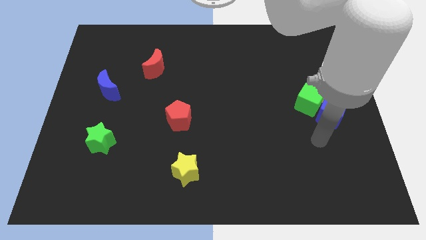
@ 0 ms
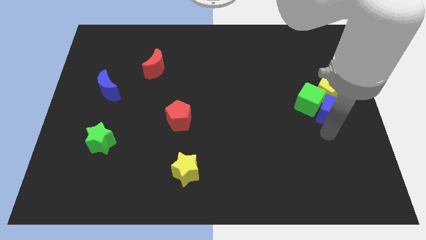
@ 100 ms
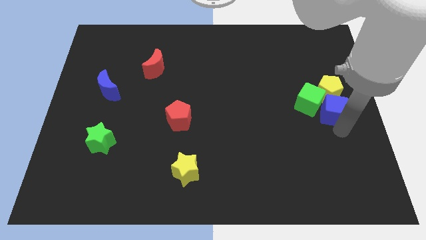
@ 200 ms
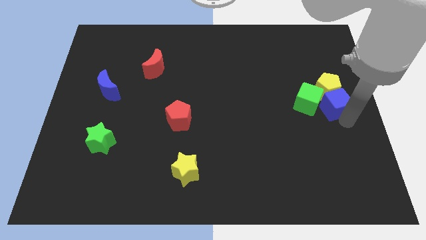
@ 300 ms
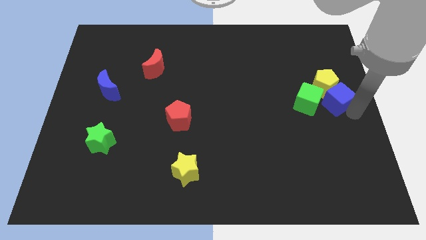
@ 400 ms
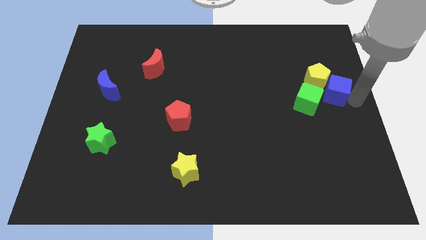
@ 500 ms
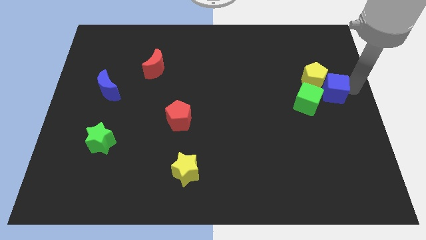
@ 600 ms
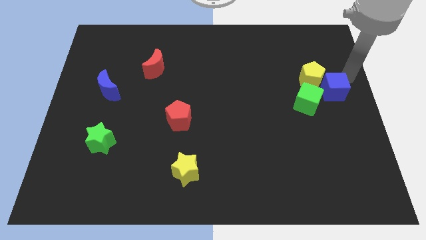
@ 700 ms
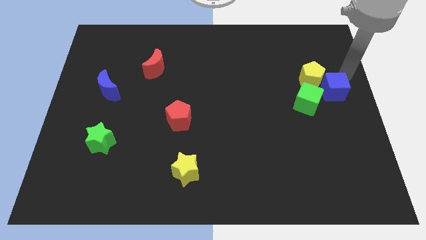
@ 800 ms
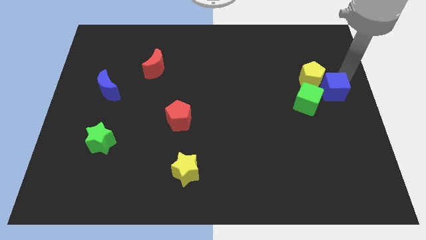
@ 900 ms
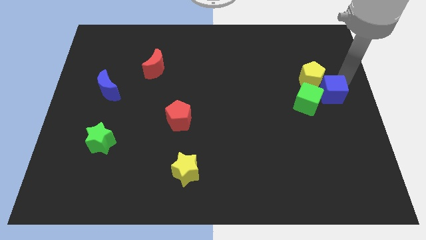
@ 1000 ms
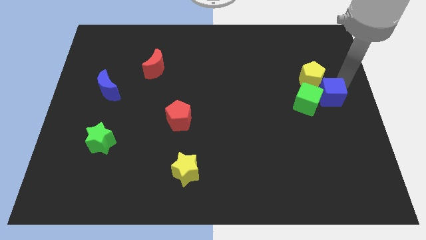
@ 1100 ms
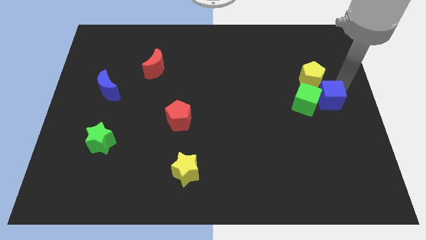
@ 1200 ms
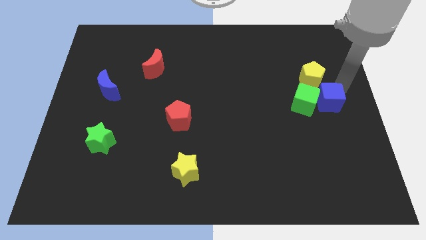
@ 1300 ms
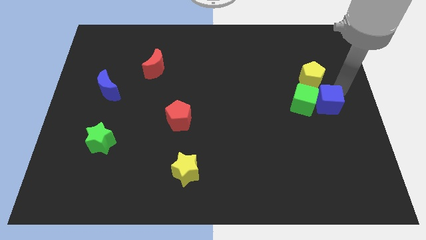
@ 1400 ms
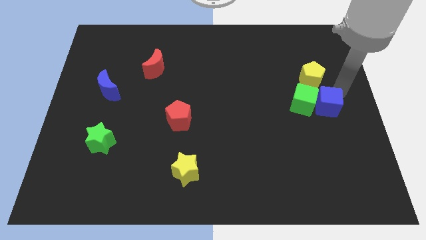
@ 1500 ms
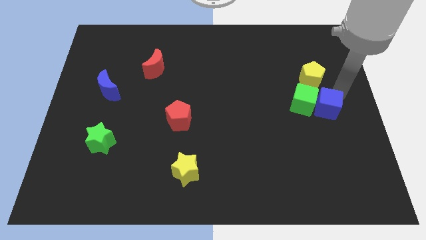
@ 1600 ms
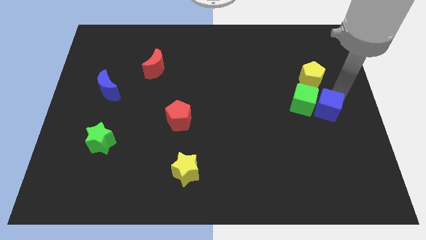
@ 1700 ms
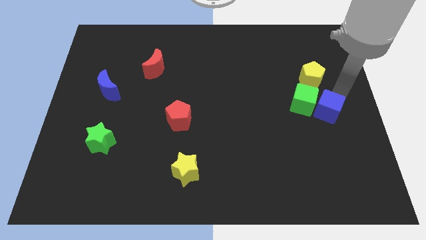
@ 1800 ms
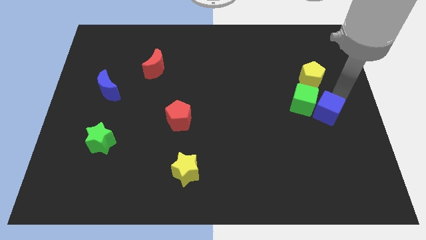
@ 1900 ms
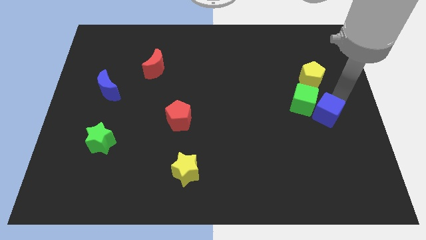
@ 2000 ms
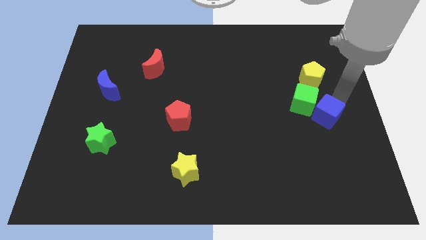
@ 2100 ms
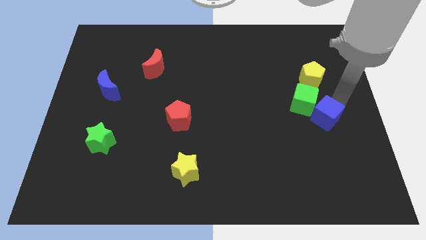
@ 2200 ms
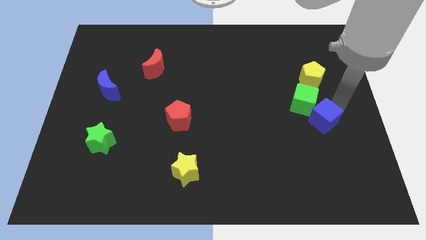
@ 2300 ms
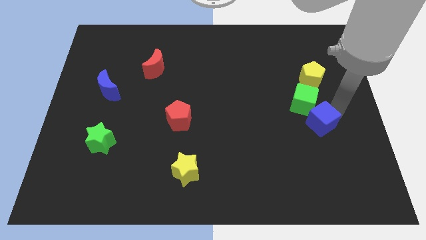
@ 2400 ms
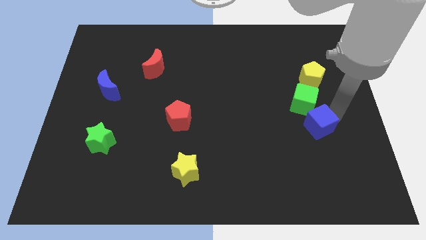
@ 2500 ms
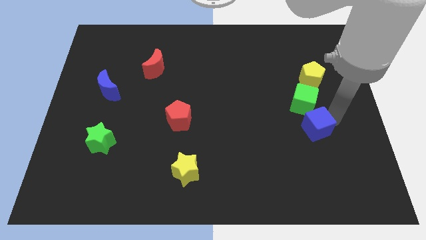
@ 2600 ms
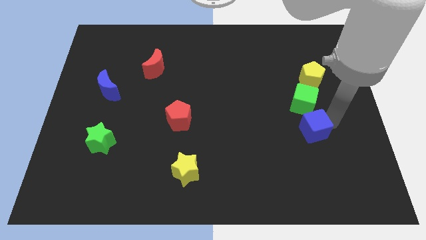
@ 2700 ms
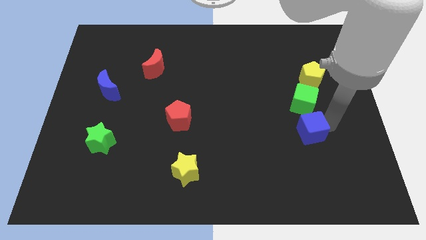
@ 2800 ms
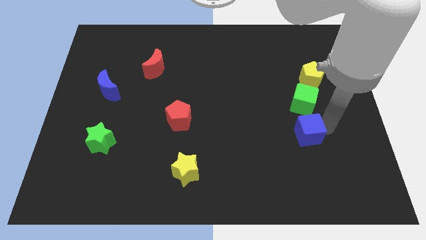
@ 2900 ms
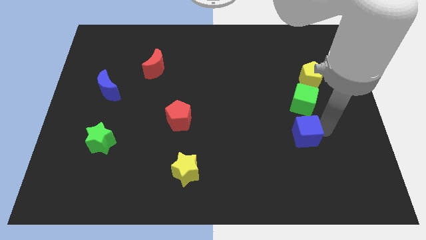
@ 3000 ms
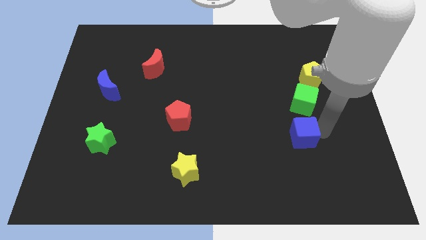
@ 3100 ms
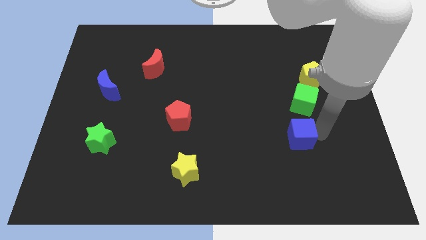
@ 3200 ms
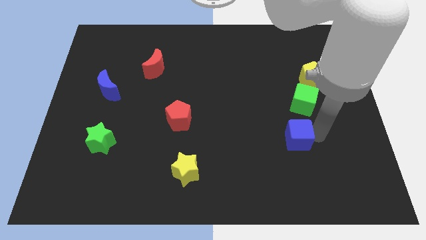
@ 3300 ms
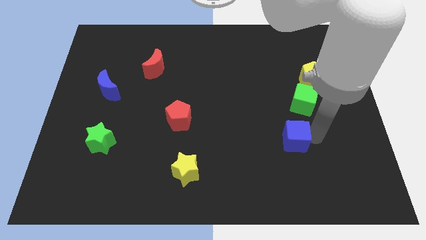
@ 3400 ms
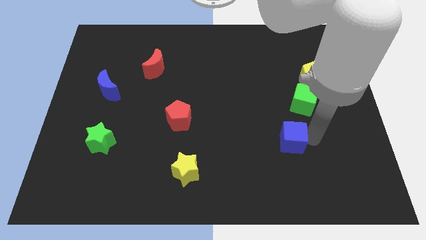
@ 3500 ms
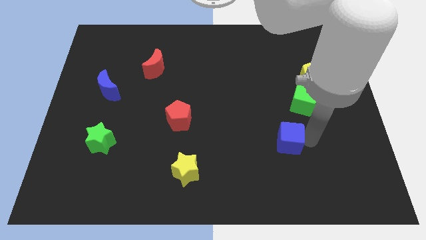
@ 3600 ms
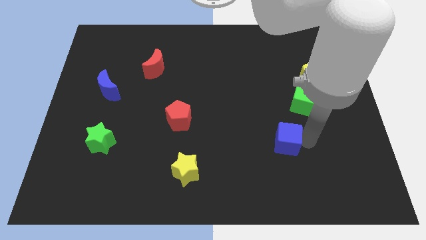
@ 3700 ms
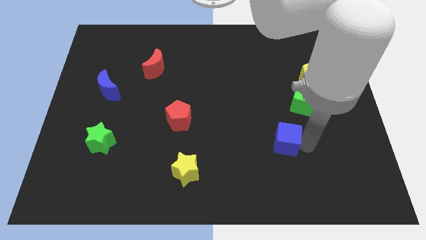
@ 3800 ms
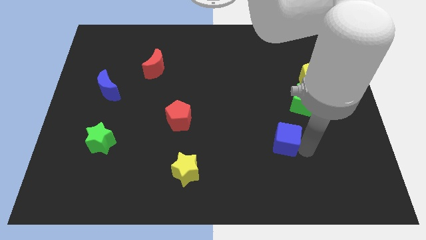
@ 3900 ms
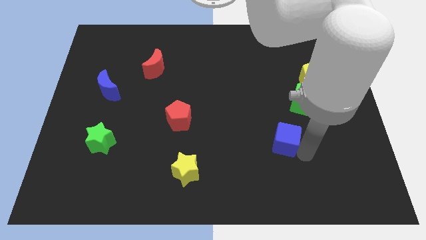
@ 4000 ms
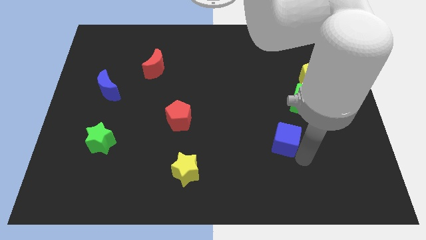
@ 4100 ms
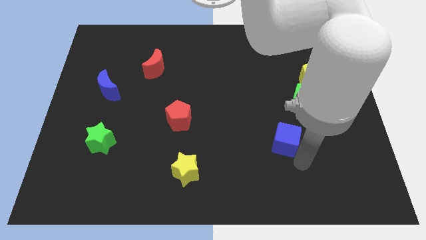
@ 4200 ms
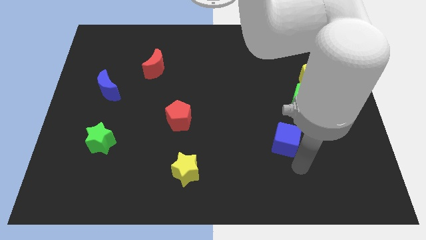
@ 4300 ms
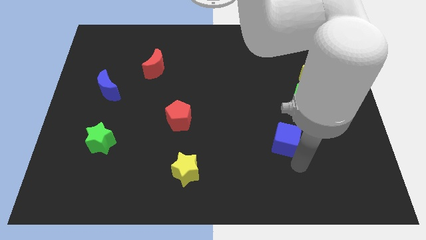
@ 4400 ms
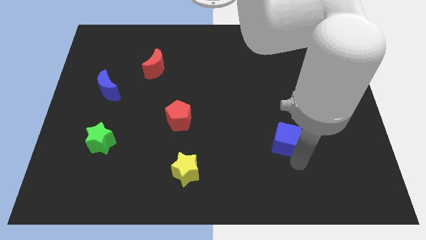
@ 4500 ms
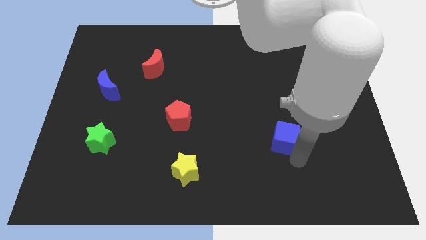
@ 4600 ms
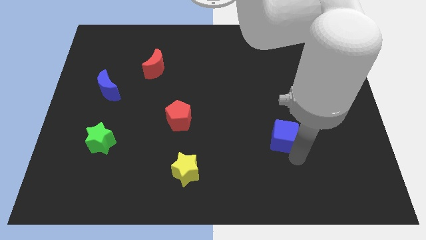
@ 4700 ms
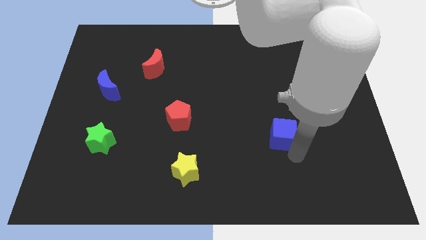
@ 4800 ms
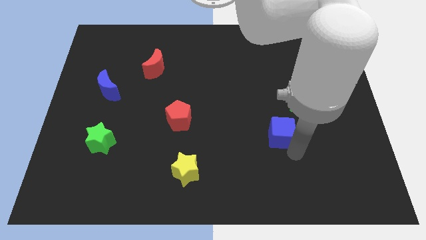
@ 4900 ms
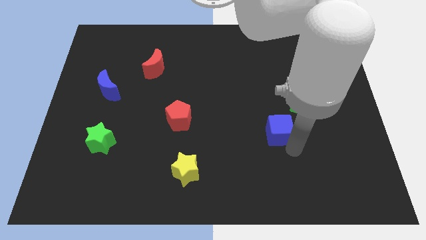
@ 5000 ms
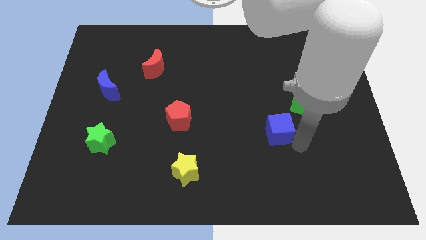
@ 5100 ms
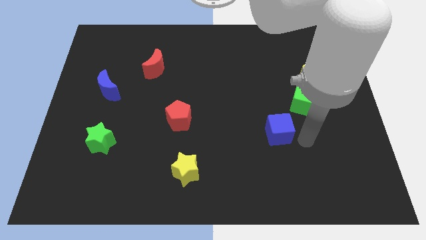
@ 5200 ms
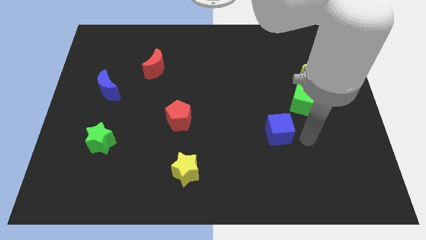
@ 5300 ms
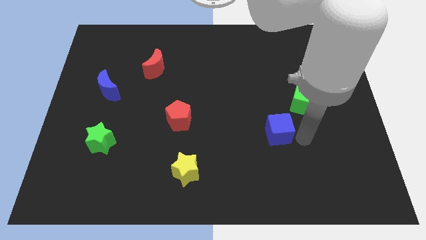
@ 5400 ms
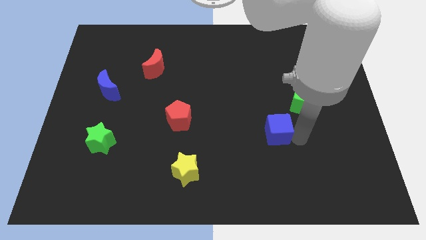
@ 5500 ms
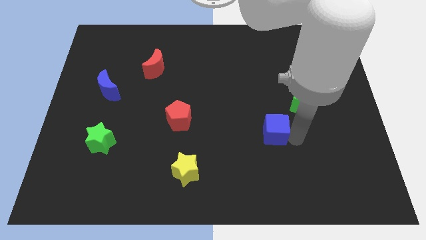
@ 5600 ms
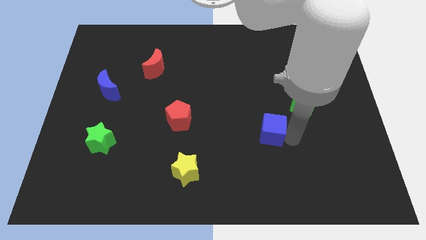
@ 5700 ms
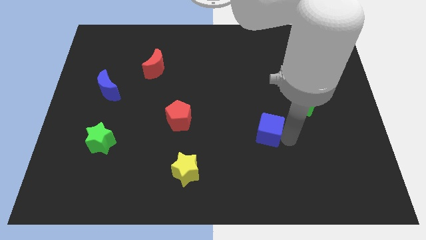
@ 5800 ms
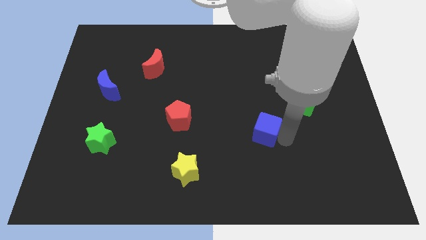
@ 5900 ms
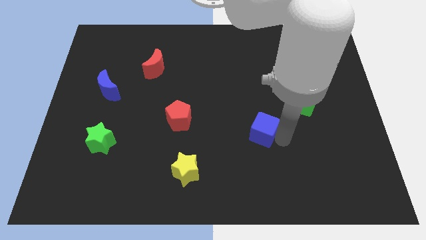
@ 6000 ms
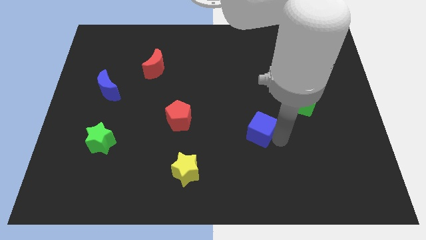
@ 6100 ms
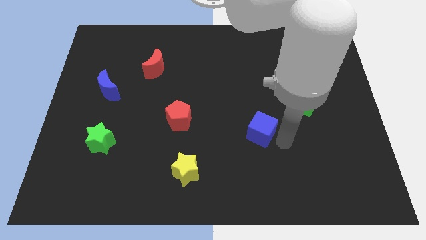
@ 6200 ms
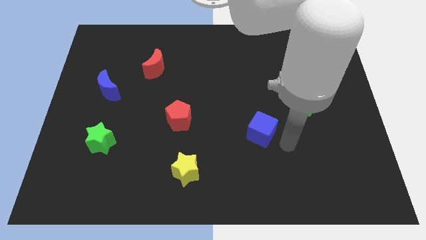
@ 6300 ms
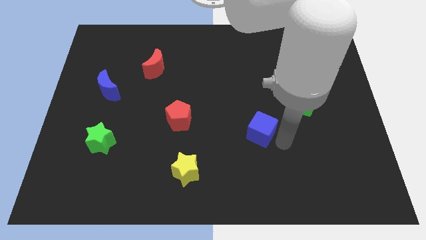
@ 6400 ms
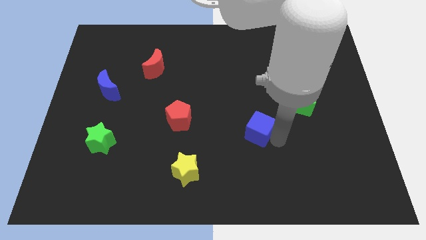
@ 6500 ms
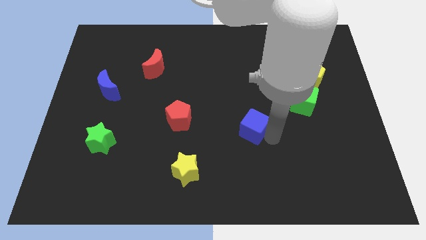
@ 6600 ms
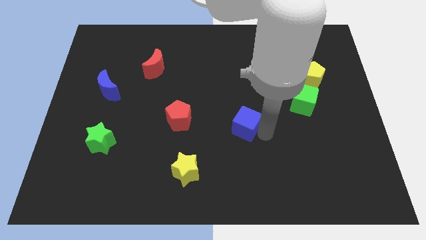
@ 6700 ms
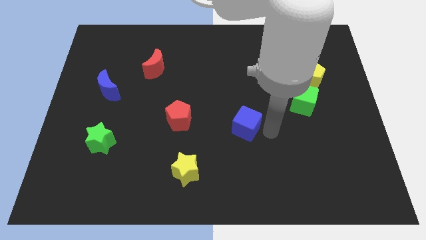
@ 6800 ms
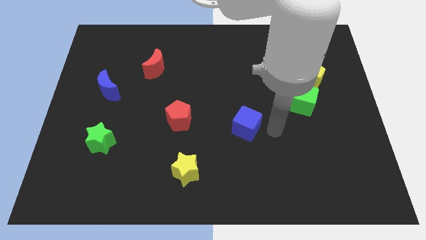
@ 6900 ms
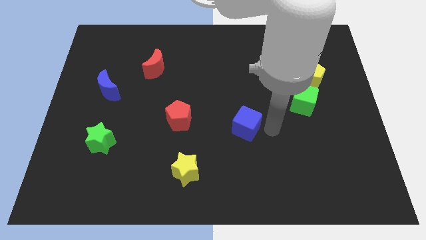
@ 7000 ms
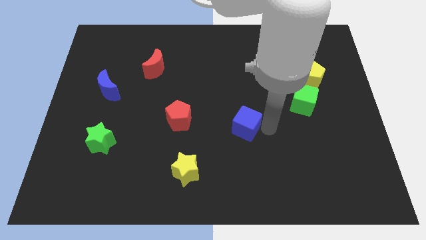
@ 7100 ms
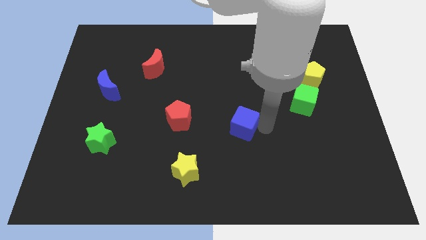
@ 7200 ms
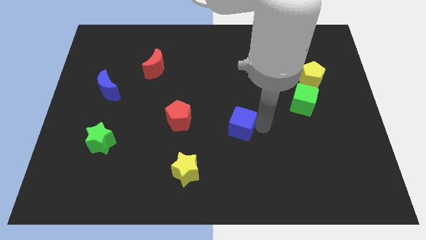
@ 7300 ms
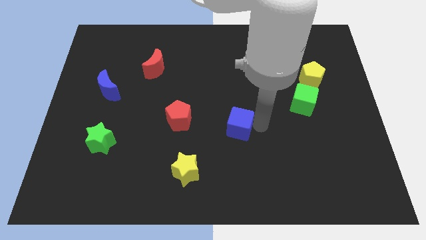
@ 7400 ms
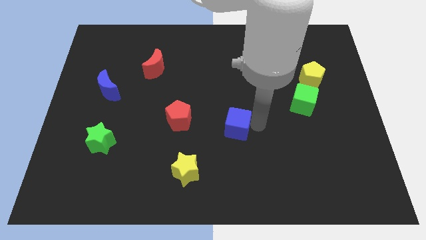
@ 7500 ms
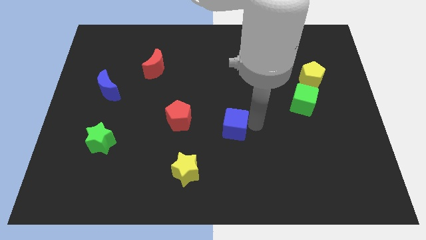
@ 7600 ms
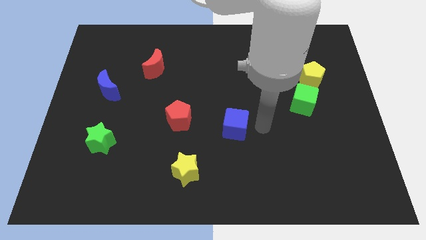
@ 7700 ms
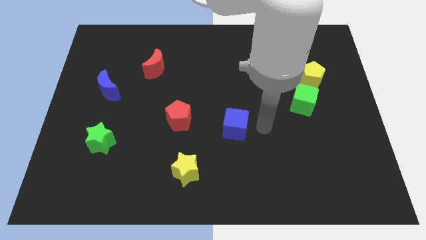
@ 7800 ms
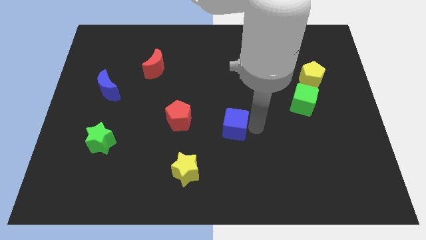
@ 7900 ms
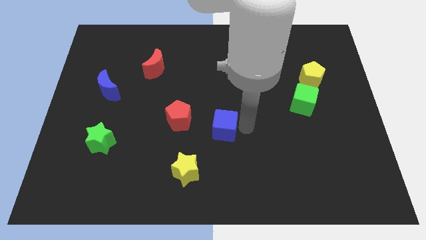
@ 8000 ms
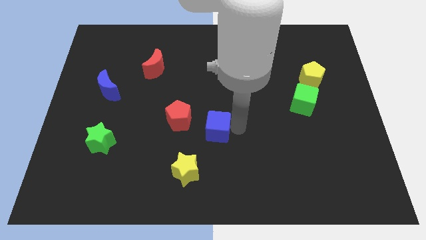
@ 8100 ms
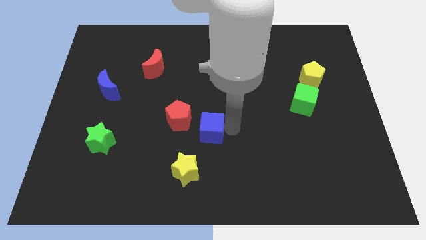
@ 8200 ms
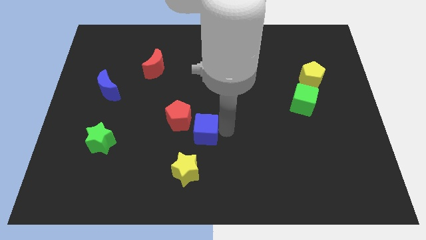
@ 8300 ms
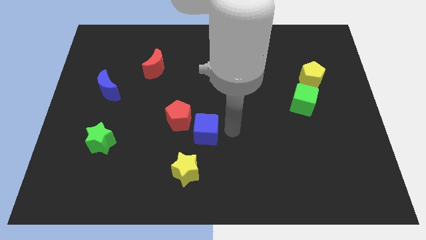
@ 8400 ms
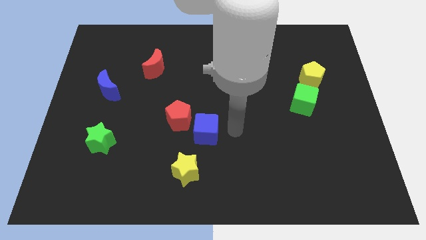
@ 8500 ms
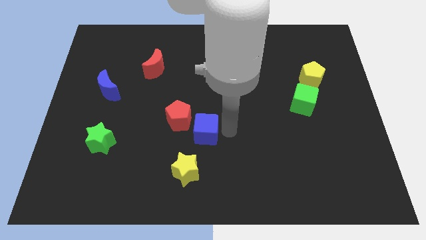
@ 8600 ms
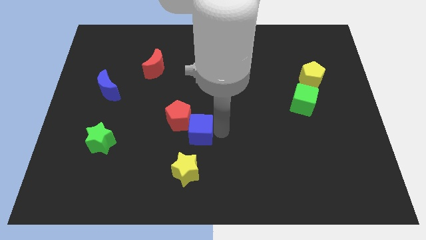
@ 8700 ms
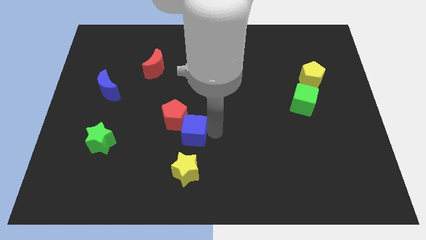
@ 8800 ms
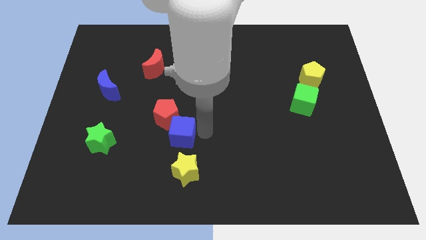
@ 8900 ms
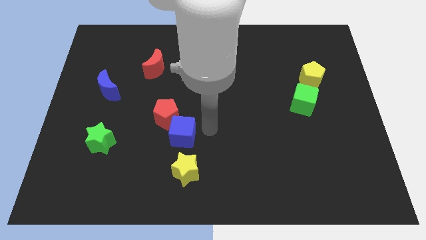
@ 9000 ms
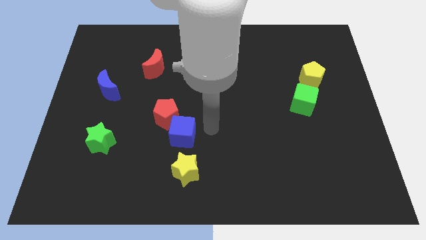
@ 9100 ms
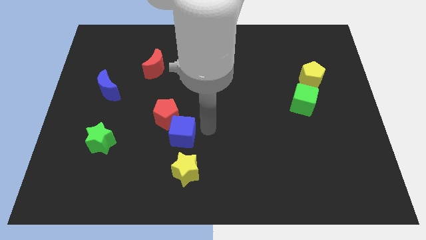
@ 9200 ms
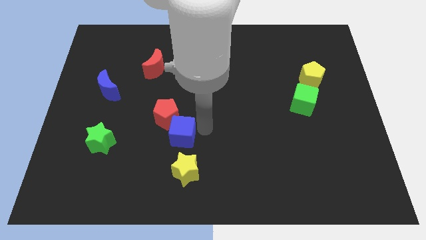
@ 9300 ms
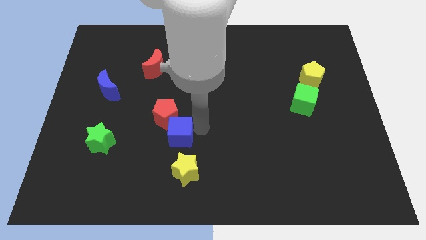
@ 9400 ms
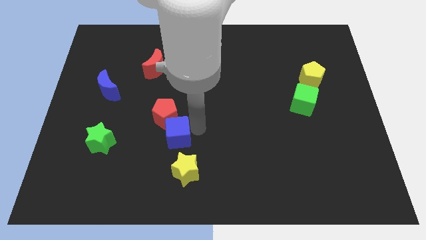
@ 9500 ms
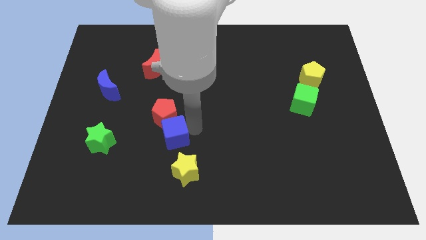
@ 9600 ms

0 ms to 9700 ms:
move the blue cube to the right of the green star
